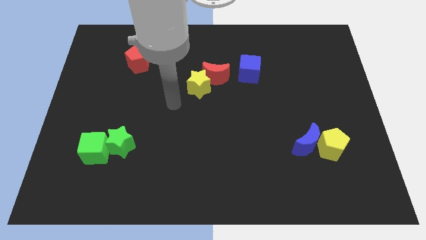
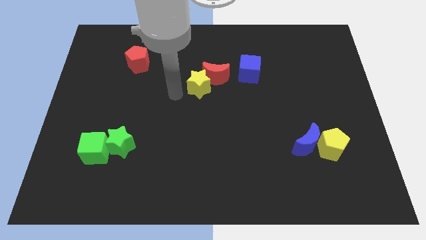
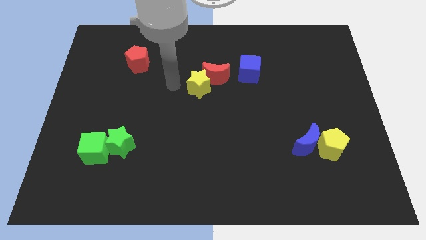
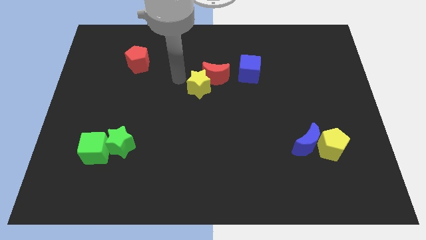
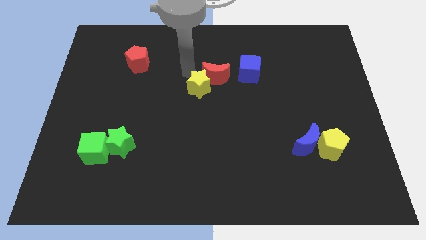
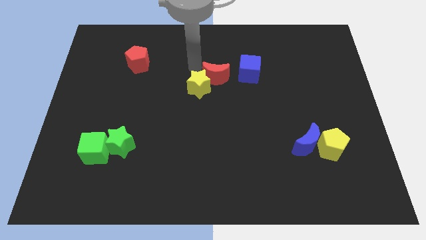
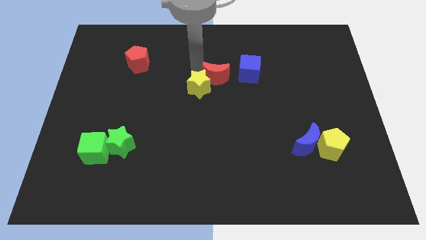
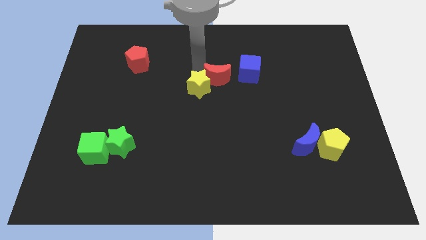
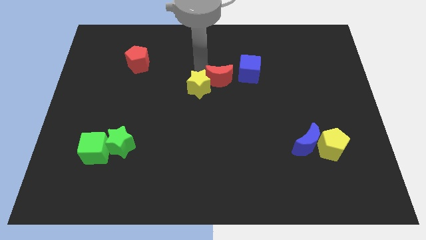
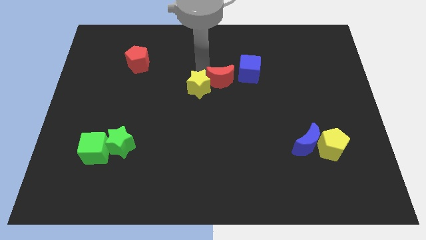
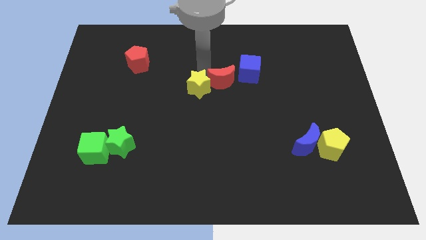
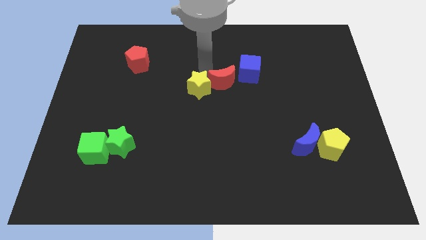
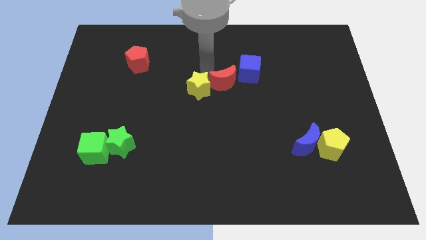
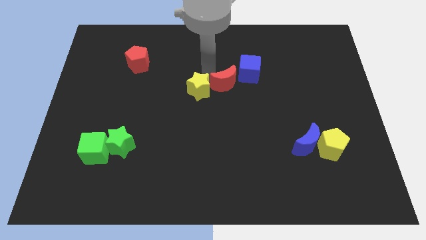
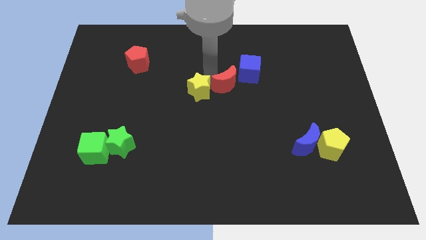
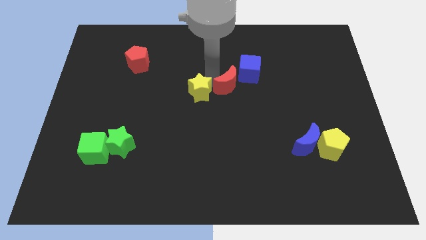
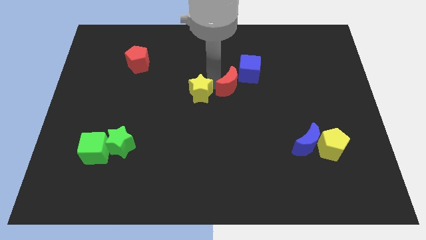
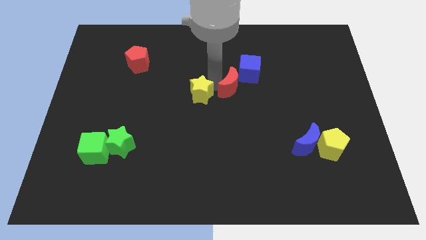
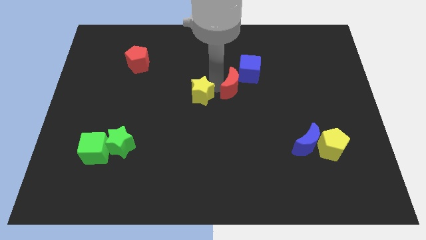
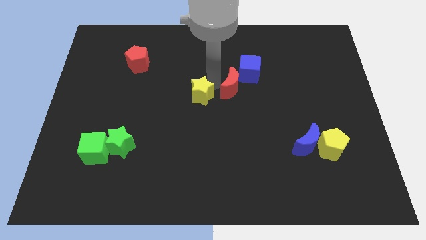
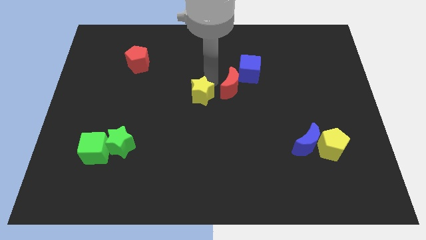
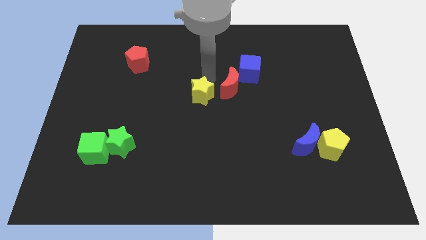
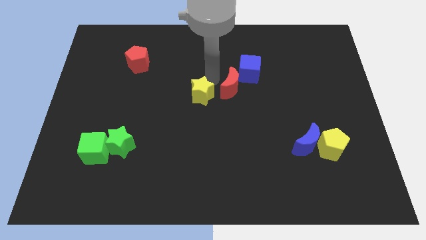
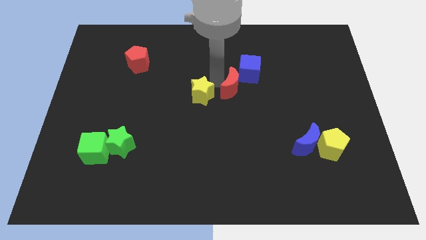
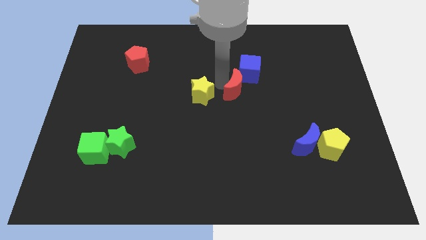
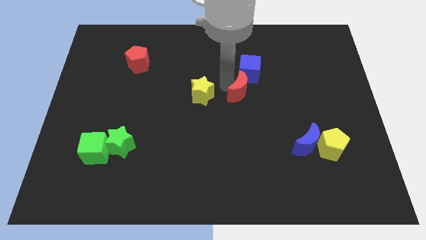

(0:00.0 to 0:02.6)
slide the red moon down and to the right diagonally slightly

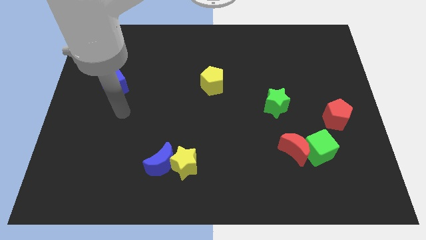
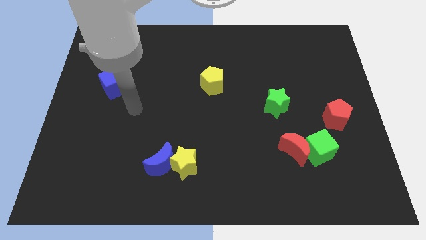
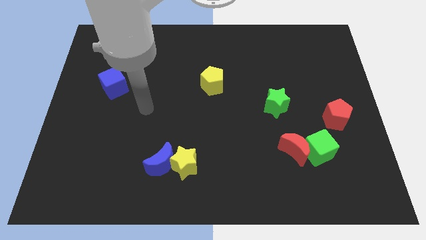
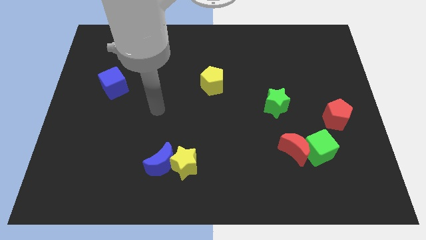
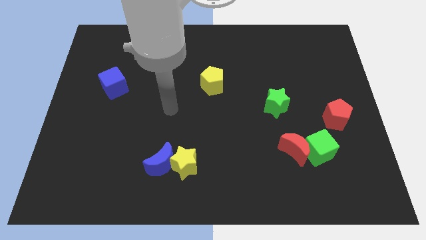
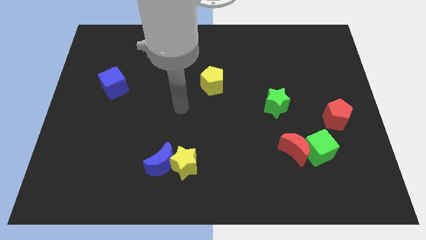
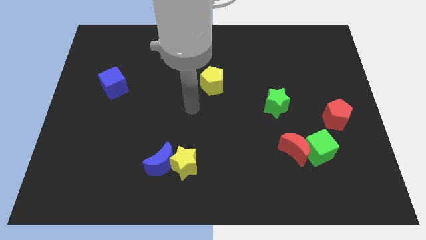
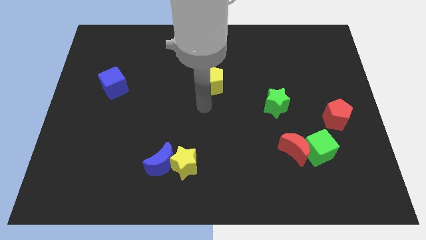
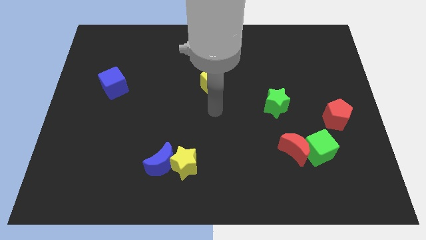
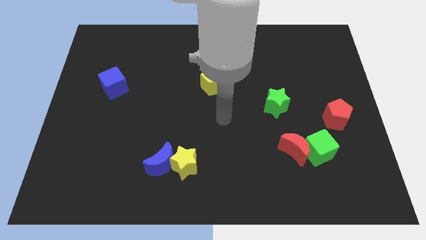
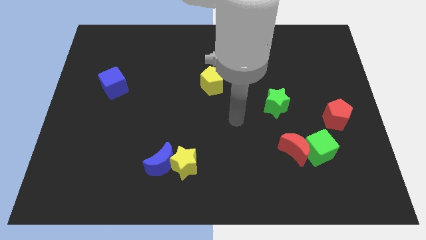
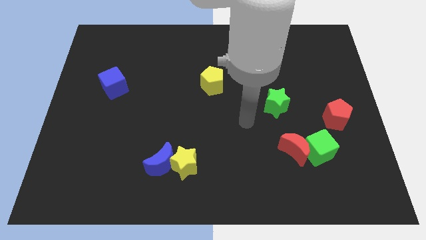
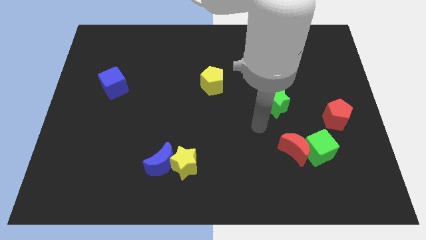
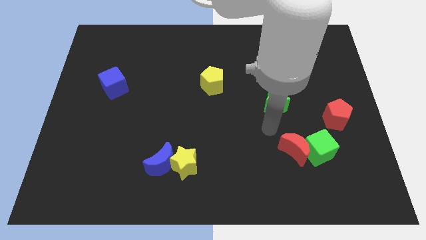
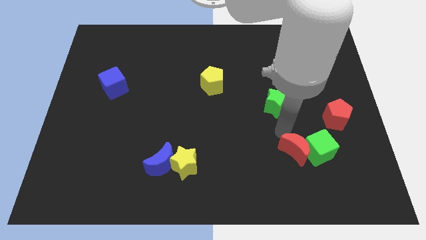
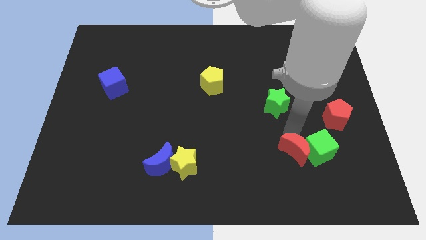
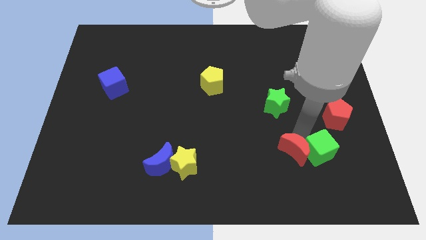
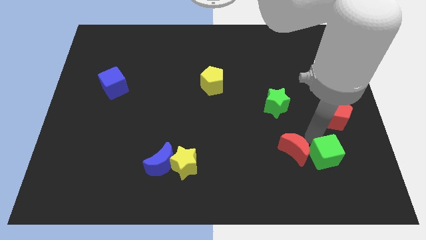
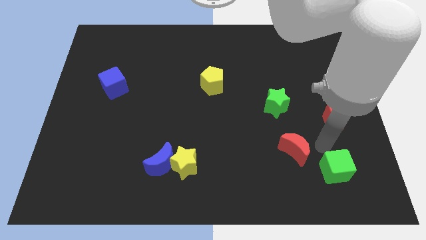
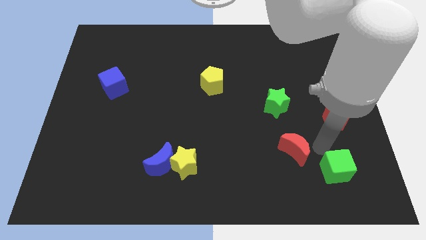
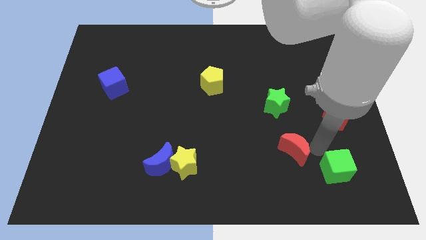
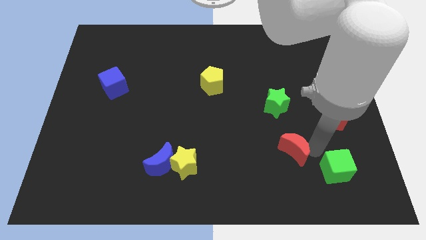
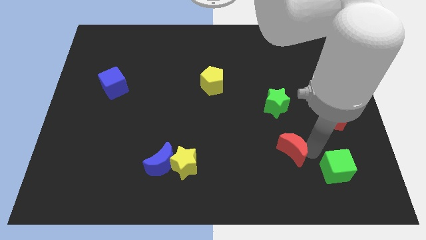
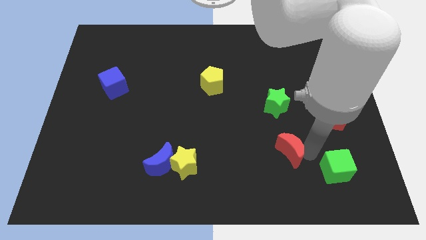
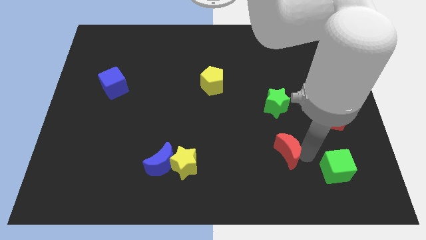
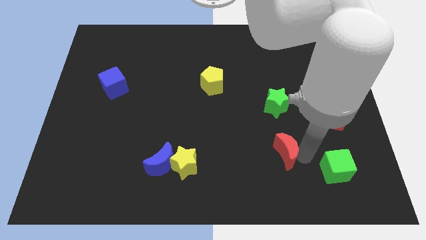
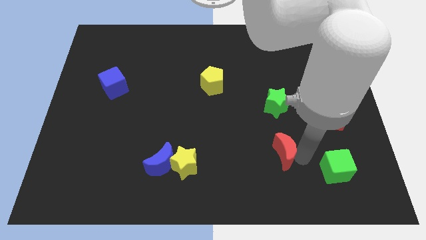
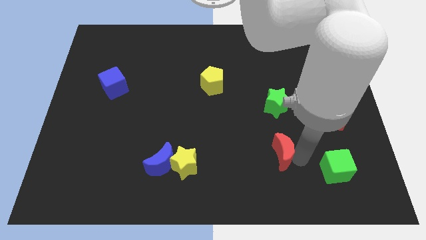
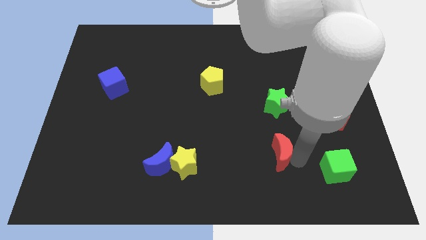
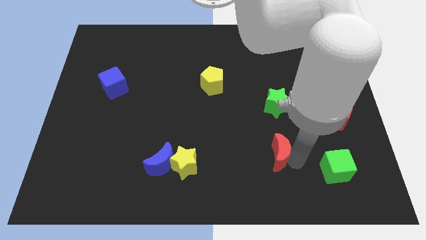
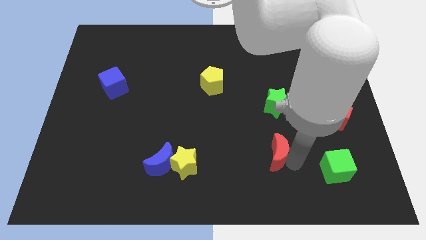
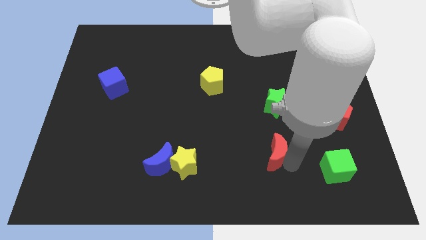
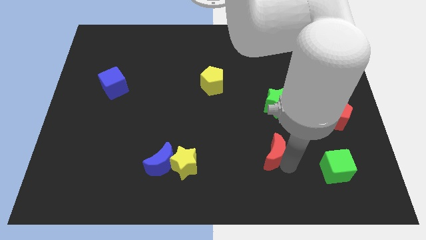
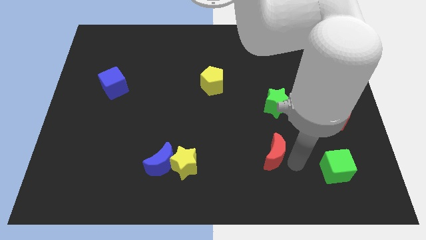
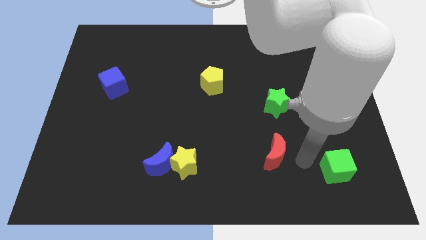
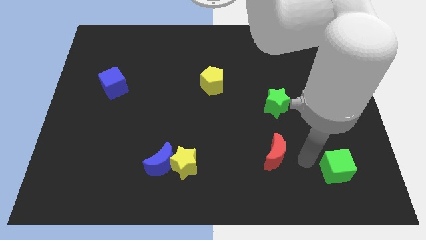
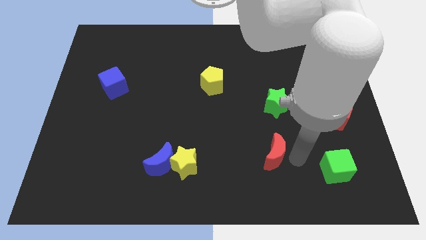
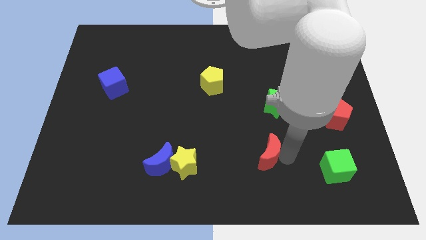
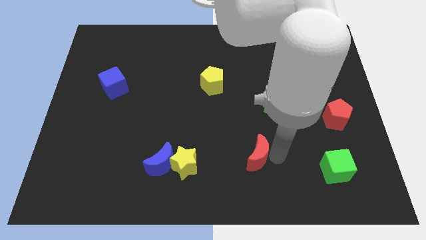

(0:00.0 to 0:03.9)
push the red moon to the left a bit

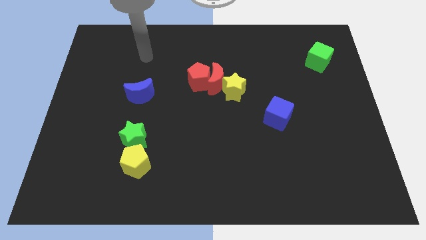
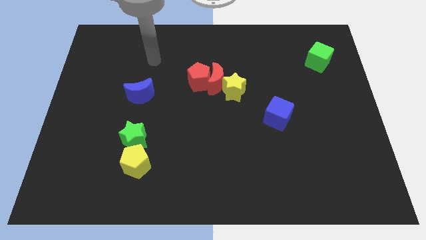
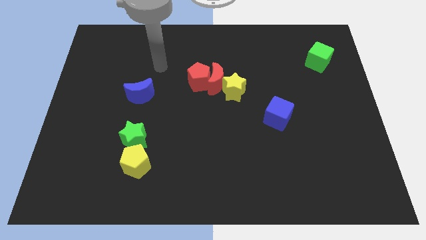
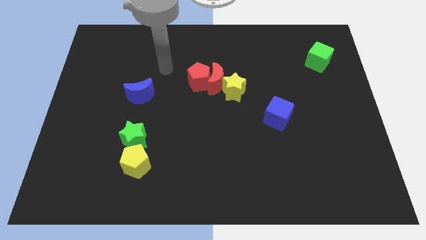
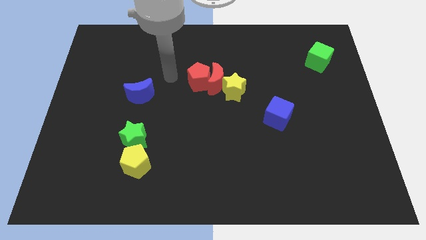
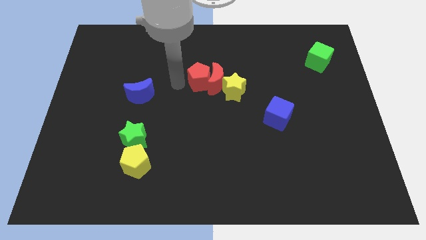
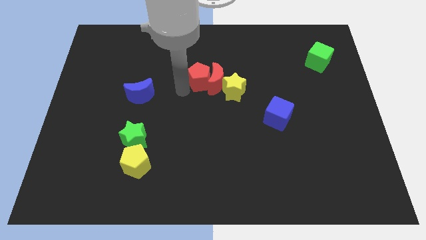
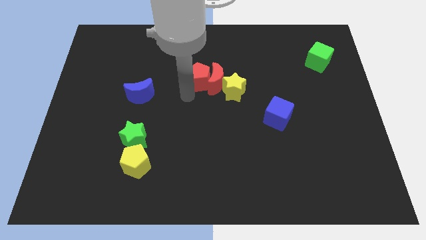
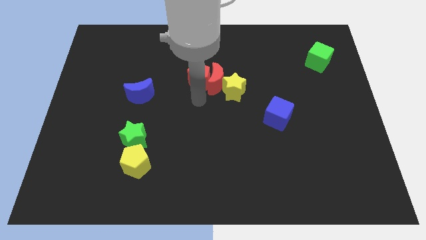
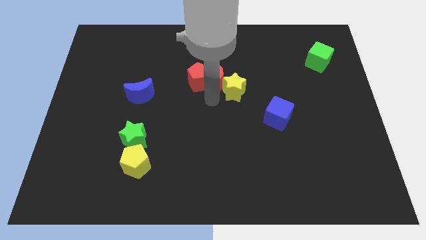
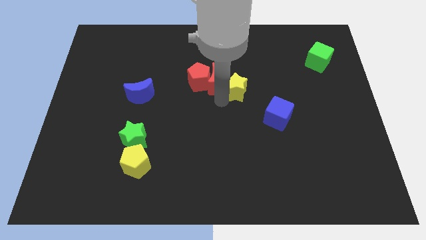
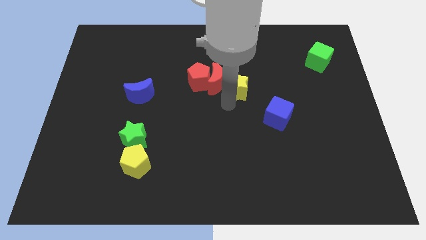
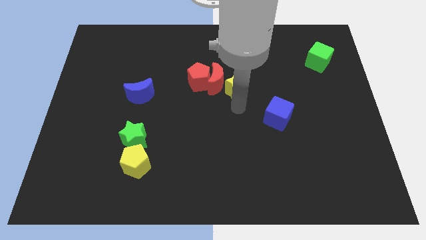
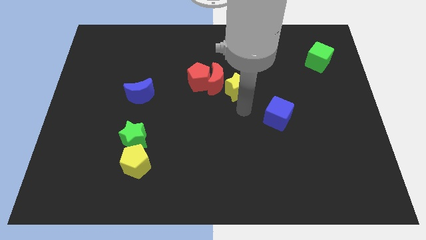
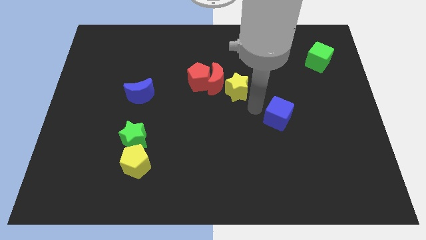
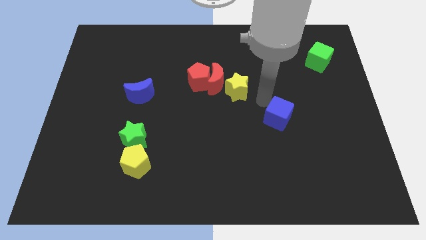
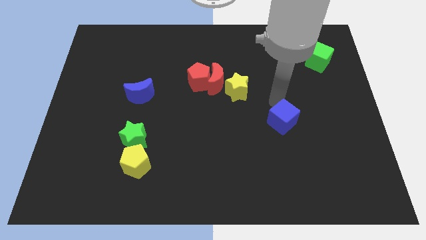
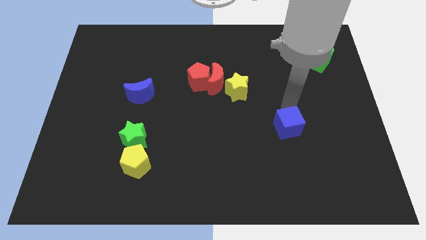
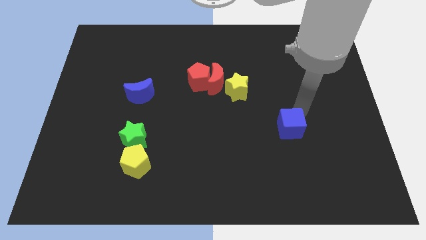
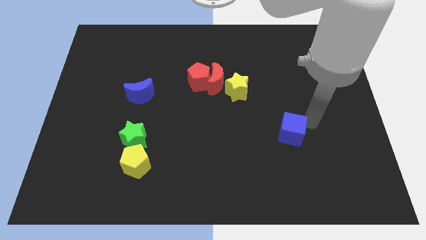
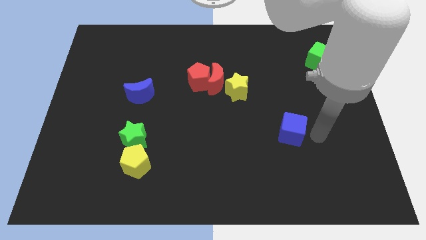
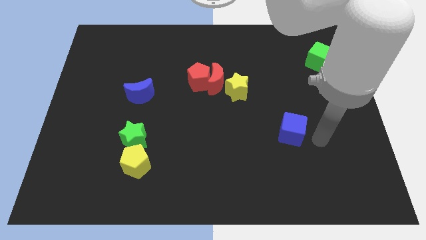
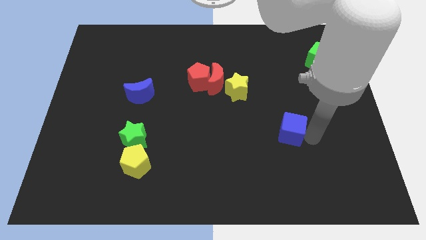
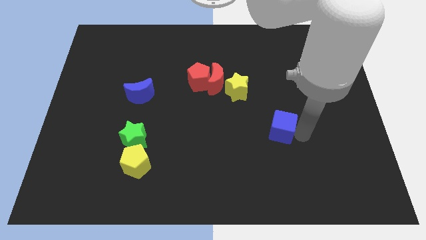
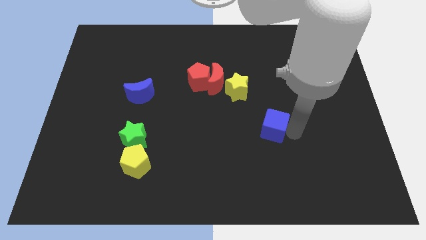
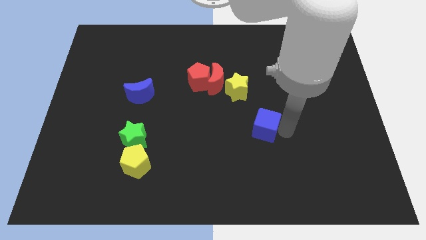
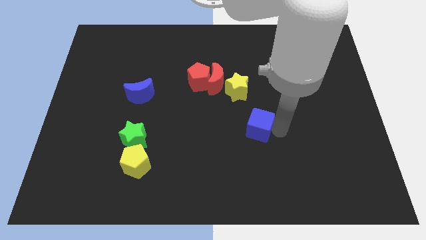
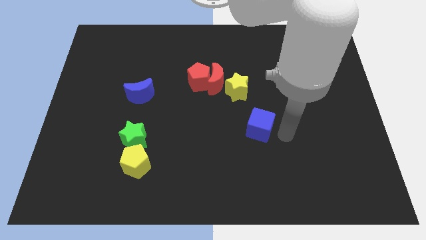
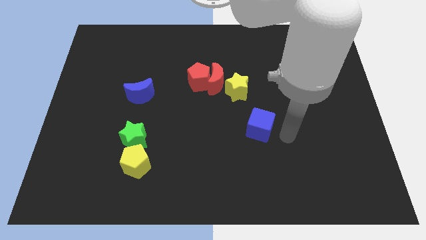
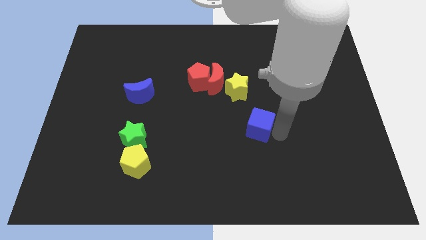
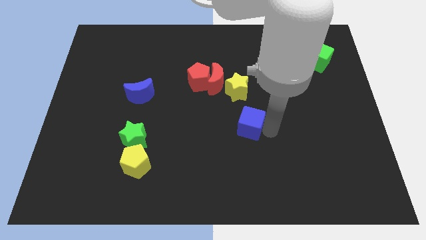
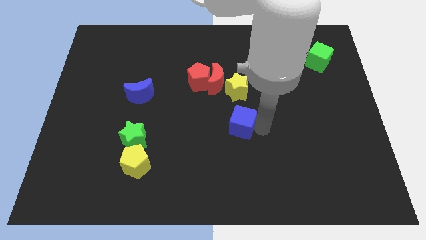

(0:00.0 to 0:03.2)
slightly slide the blue cube to the left
